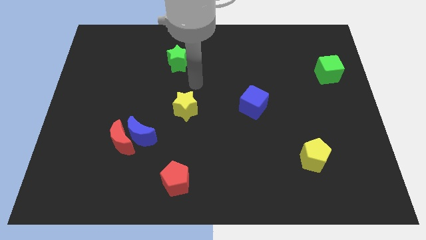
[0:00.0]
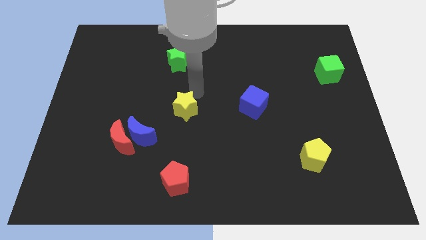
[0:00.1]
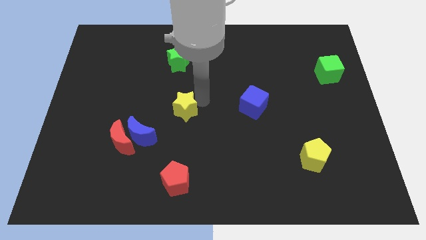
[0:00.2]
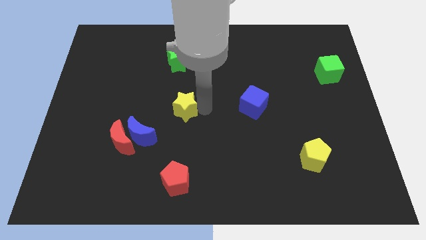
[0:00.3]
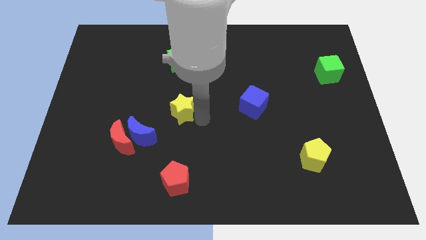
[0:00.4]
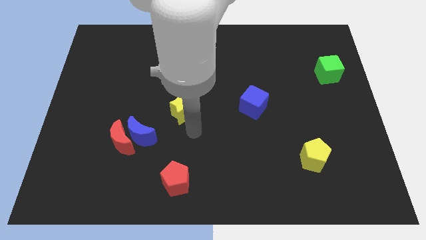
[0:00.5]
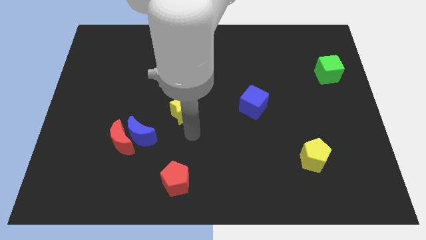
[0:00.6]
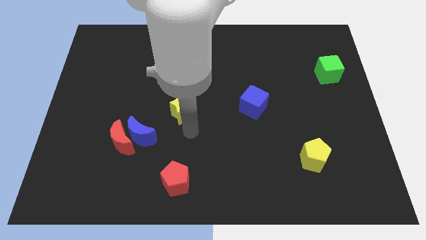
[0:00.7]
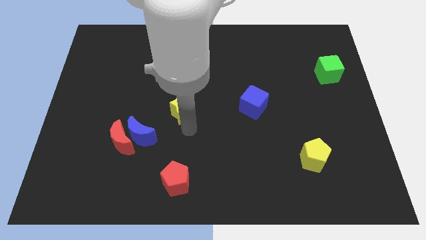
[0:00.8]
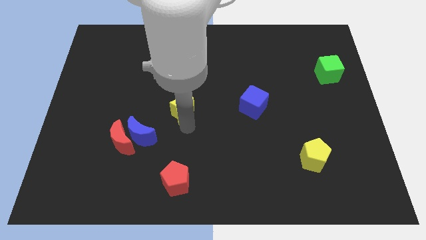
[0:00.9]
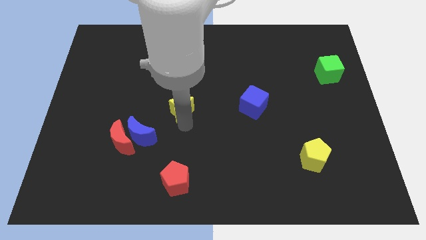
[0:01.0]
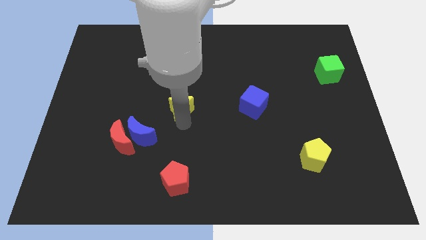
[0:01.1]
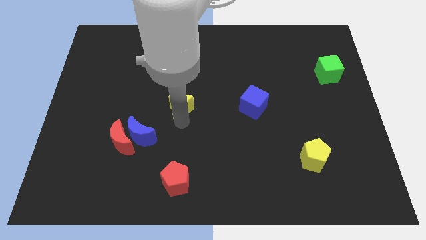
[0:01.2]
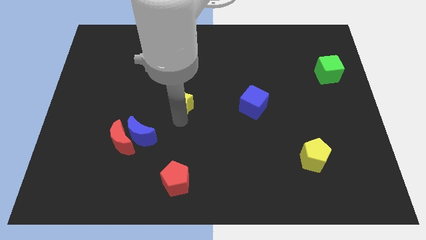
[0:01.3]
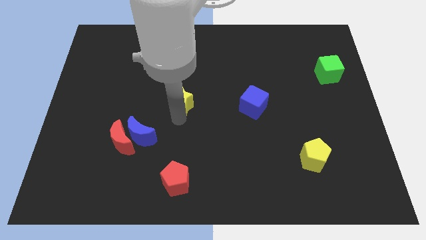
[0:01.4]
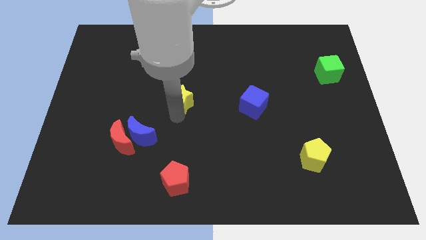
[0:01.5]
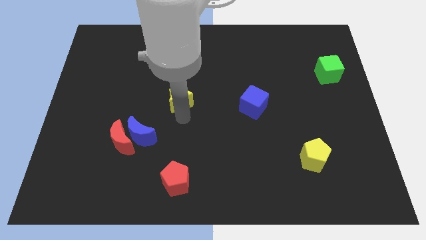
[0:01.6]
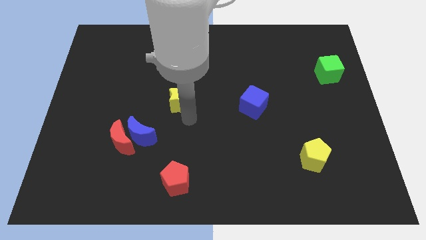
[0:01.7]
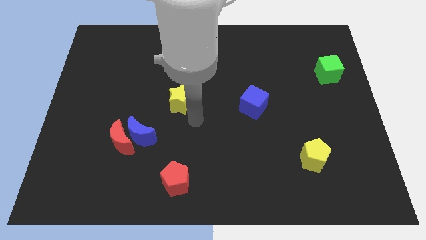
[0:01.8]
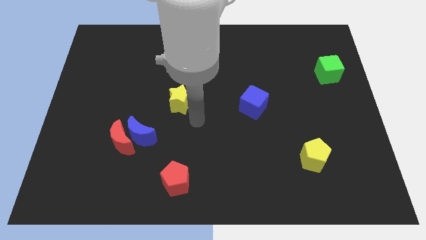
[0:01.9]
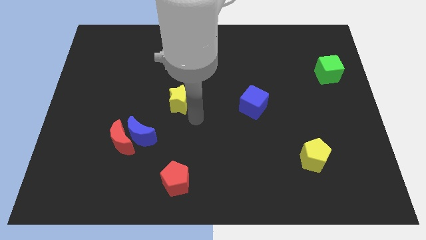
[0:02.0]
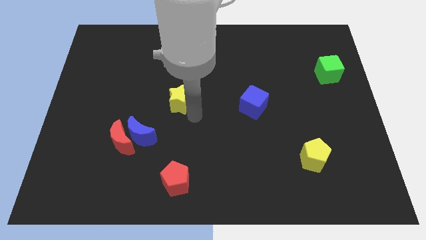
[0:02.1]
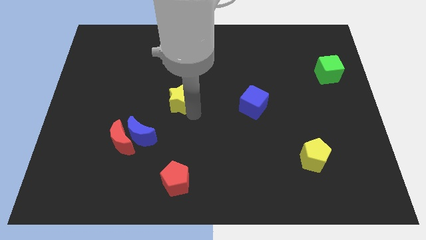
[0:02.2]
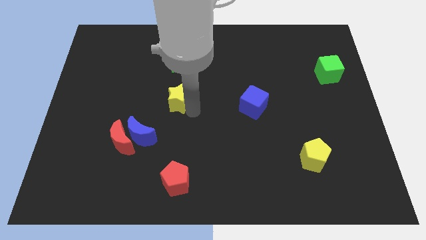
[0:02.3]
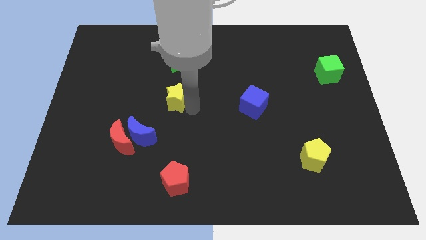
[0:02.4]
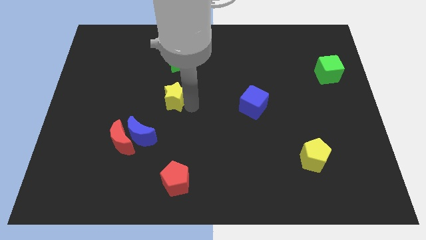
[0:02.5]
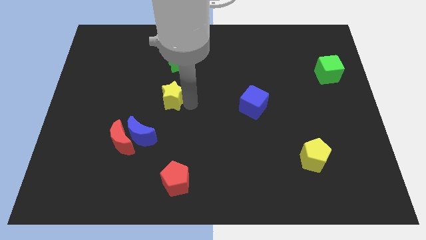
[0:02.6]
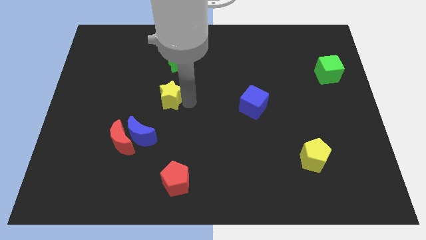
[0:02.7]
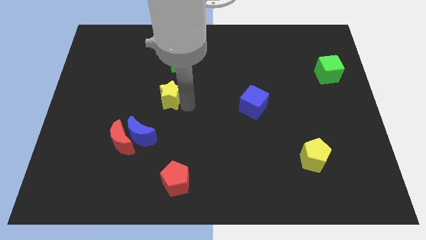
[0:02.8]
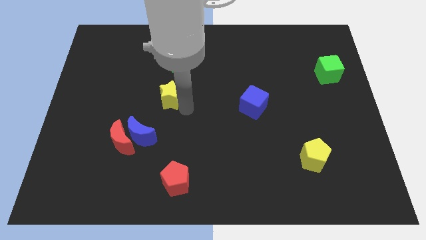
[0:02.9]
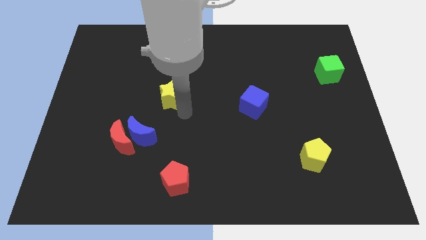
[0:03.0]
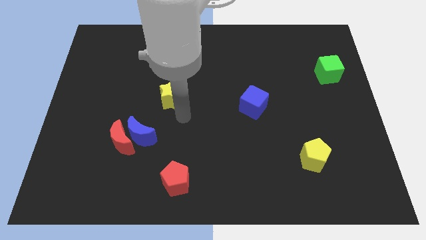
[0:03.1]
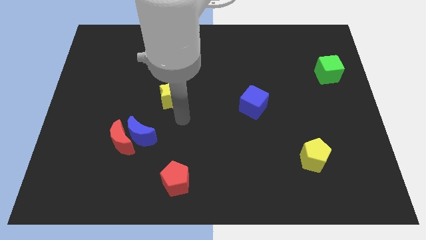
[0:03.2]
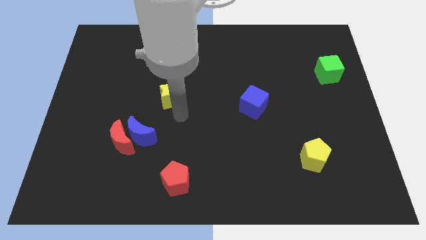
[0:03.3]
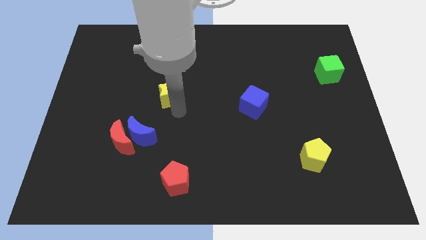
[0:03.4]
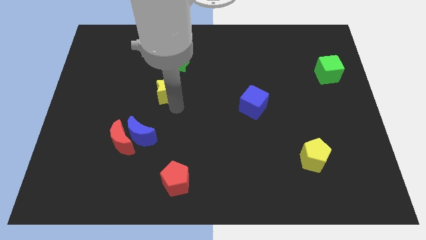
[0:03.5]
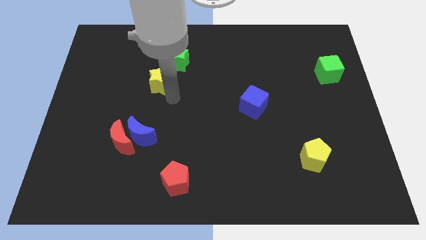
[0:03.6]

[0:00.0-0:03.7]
slide the yellow star slightly upwards and then to the left

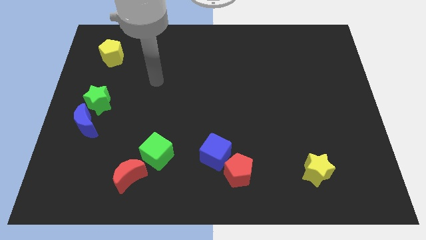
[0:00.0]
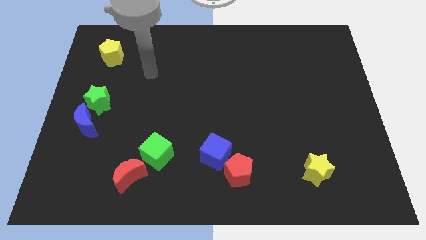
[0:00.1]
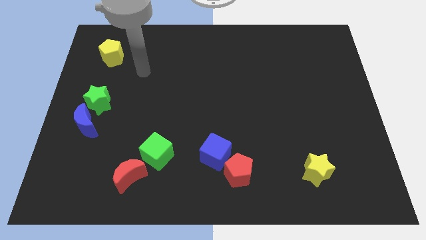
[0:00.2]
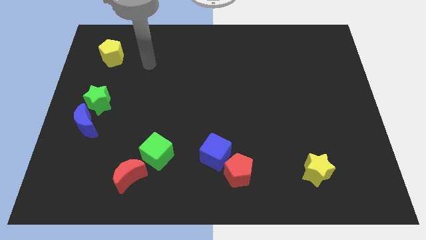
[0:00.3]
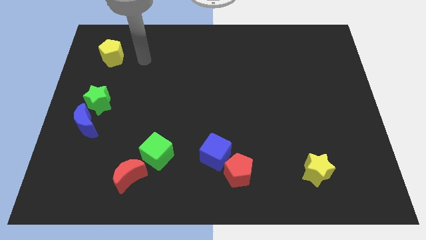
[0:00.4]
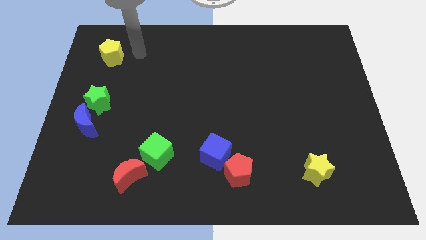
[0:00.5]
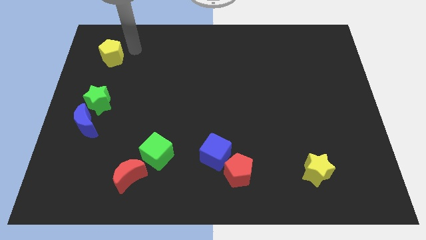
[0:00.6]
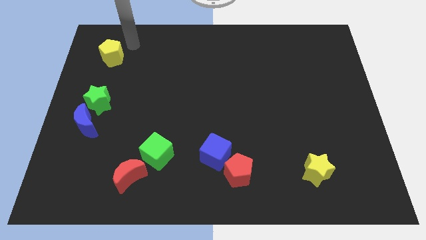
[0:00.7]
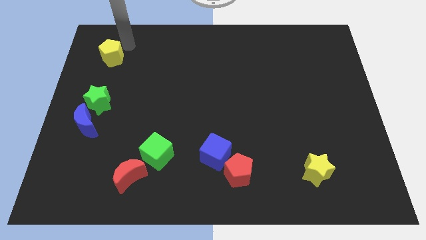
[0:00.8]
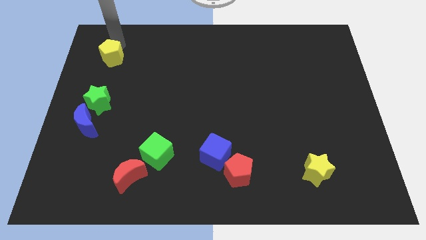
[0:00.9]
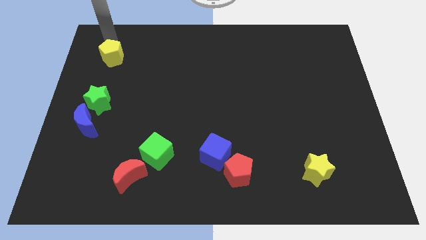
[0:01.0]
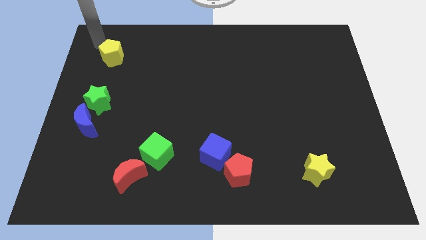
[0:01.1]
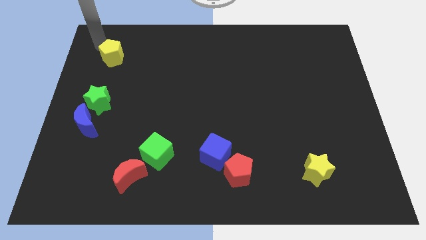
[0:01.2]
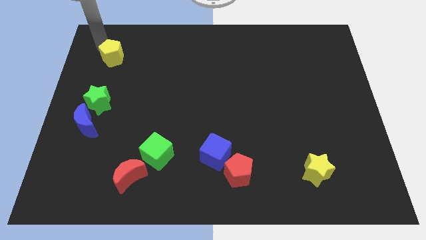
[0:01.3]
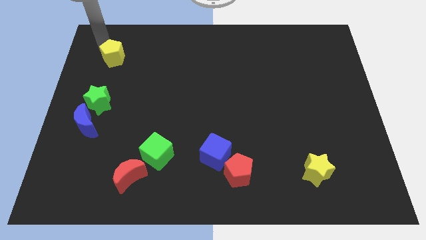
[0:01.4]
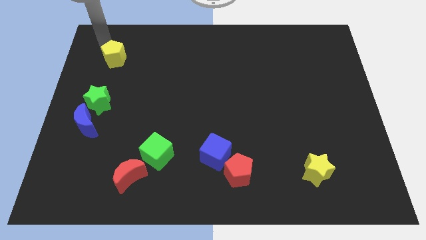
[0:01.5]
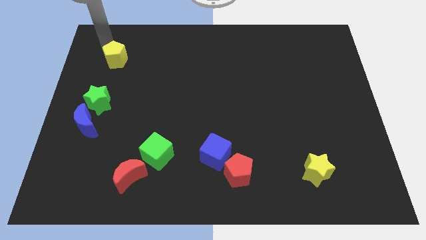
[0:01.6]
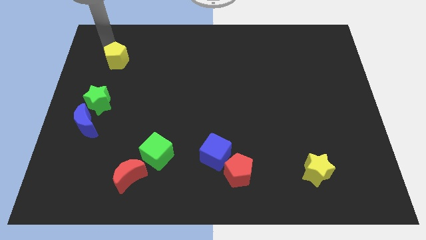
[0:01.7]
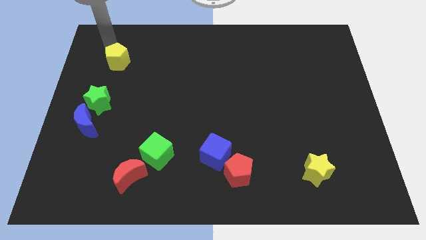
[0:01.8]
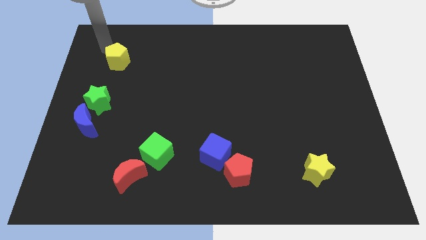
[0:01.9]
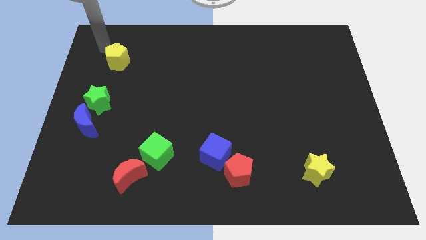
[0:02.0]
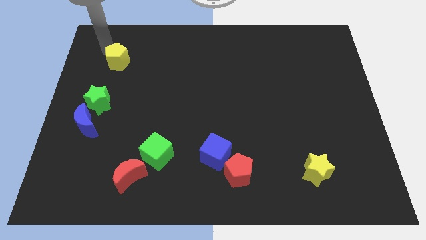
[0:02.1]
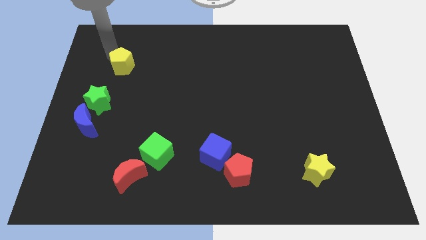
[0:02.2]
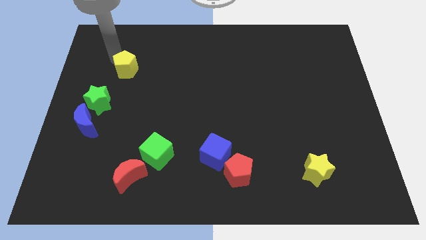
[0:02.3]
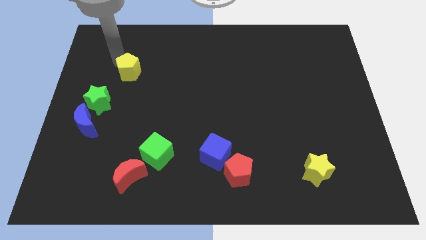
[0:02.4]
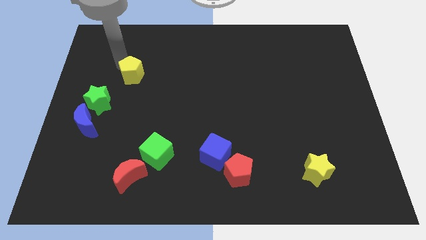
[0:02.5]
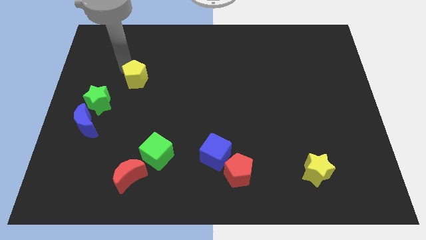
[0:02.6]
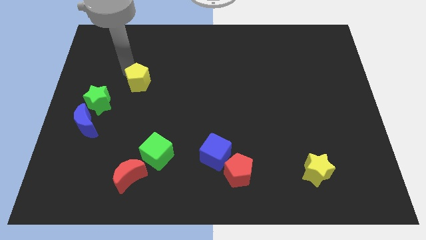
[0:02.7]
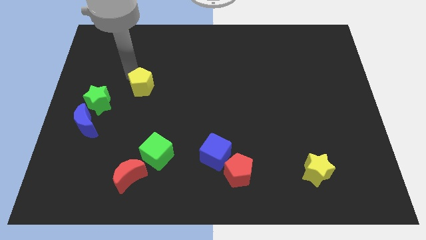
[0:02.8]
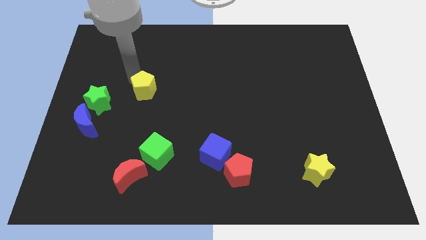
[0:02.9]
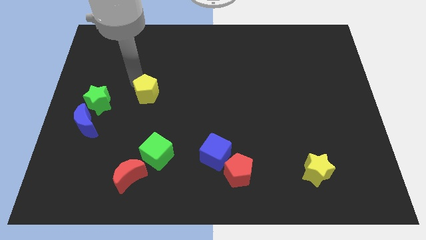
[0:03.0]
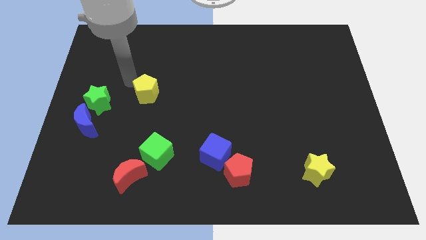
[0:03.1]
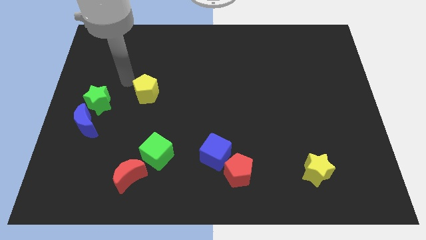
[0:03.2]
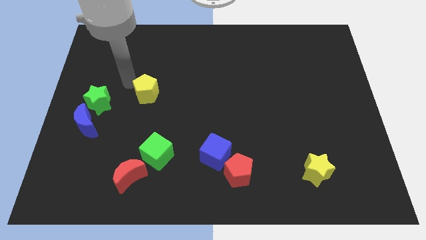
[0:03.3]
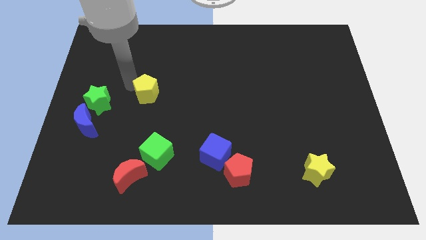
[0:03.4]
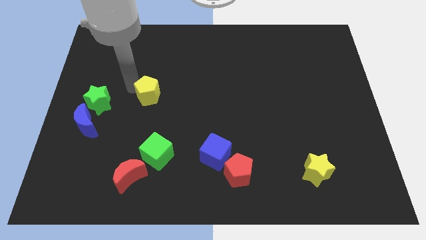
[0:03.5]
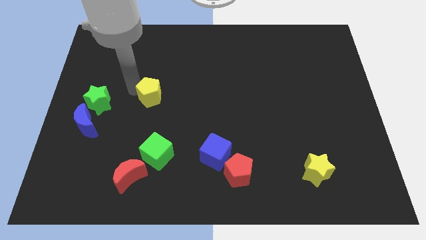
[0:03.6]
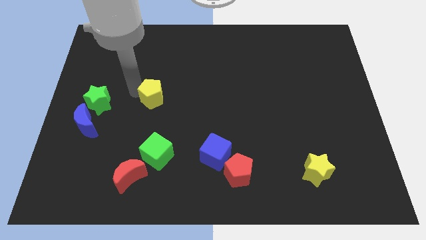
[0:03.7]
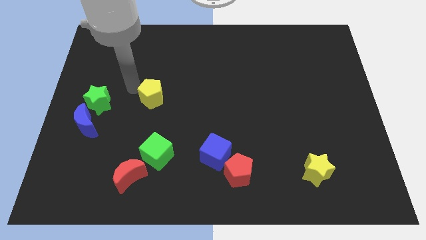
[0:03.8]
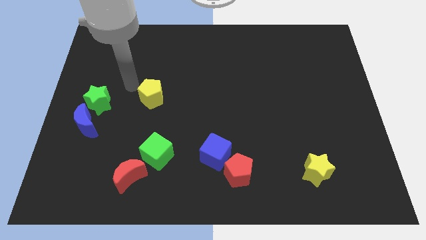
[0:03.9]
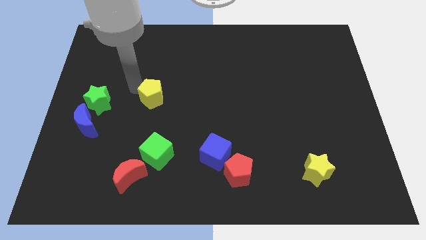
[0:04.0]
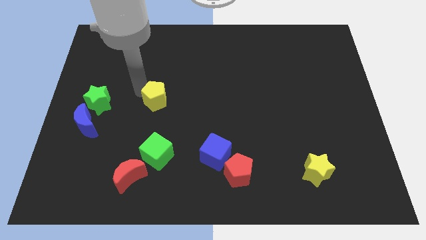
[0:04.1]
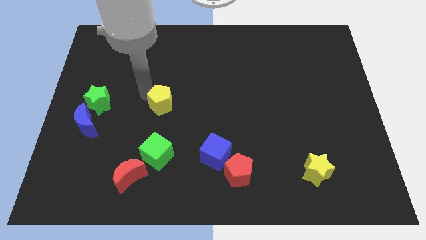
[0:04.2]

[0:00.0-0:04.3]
slide the yellow pentagon downwards and right
